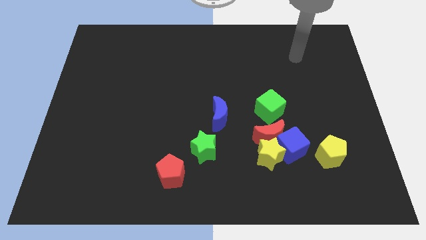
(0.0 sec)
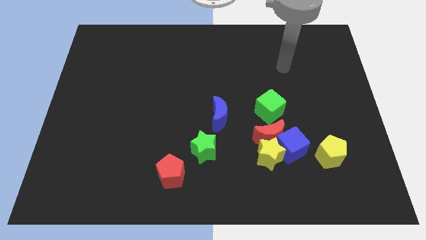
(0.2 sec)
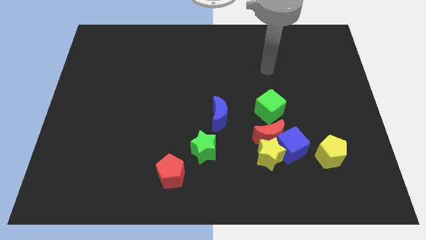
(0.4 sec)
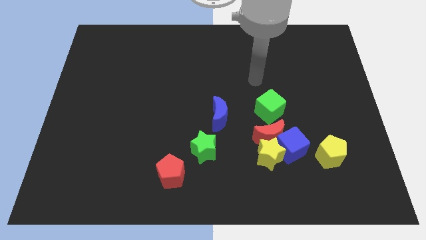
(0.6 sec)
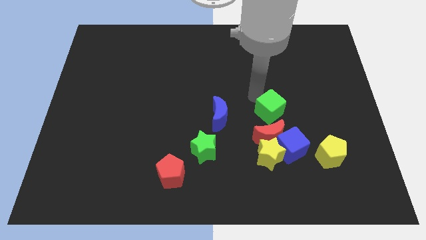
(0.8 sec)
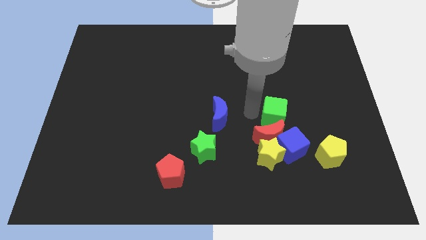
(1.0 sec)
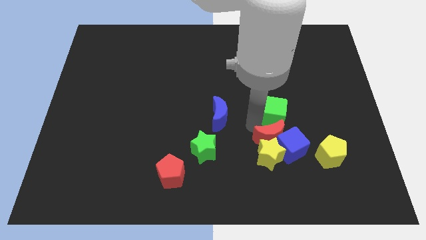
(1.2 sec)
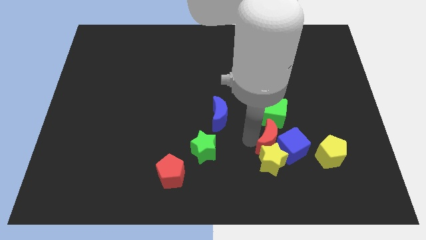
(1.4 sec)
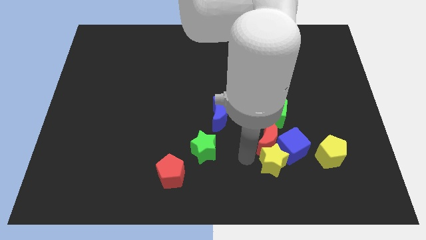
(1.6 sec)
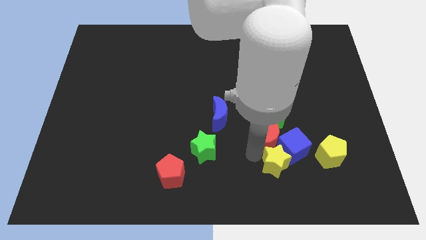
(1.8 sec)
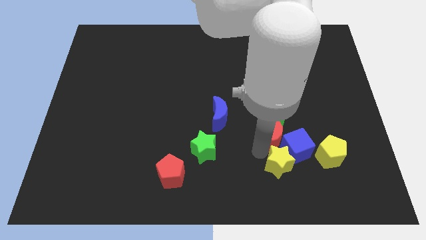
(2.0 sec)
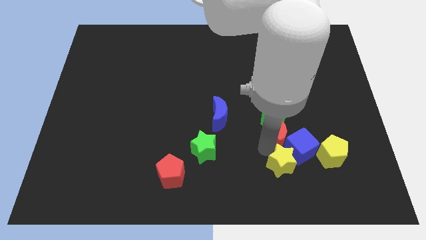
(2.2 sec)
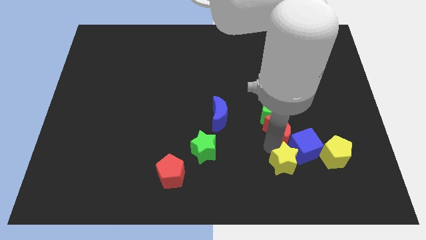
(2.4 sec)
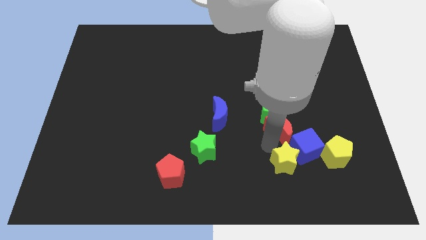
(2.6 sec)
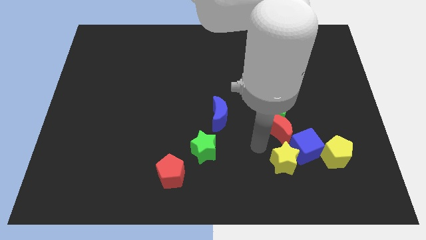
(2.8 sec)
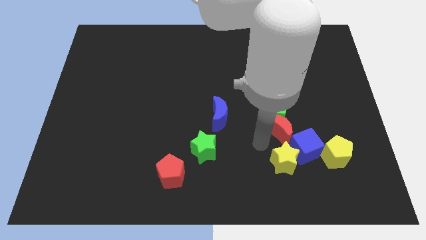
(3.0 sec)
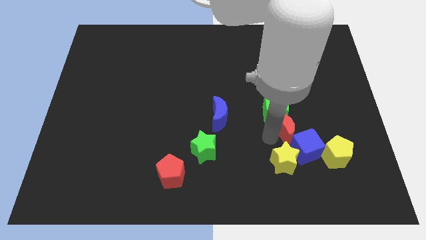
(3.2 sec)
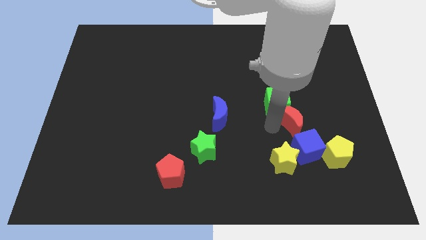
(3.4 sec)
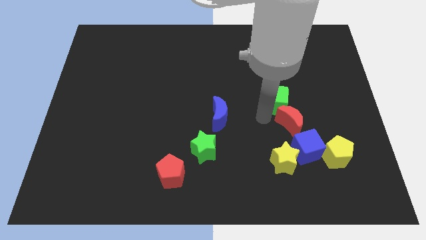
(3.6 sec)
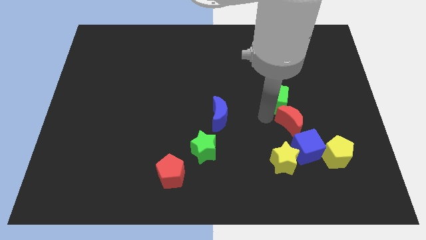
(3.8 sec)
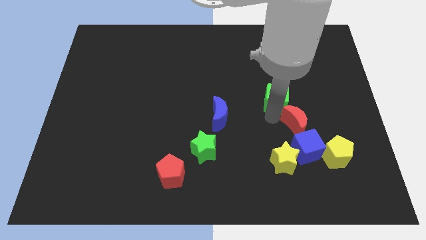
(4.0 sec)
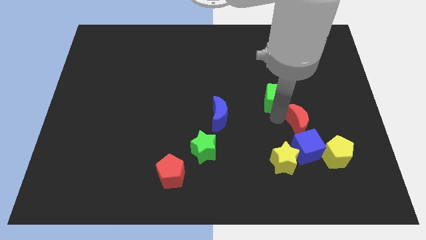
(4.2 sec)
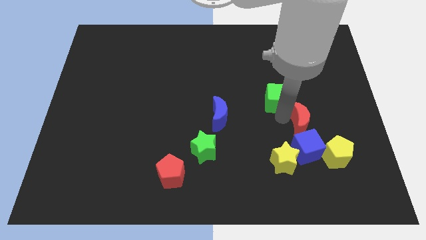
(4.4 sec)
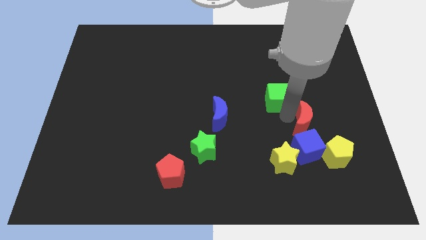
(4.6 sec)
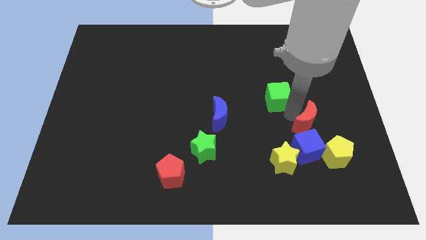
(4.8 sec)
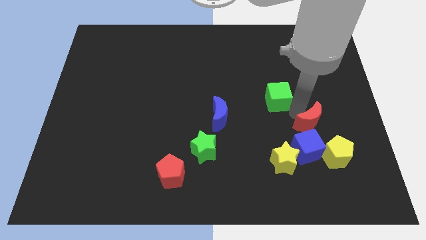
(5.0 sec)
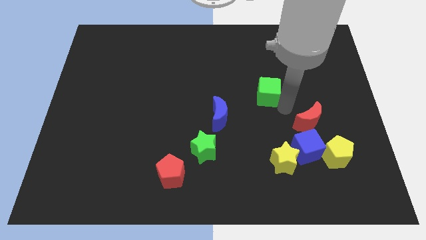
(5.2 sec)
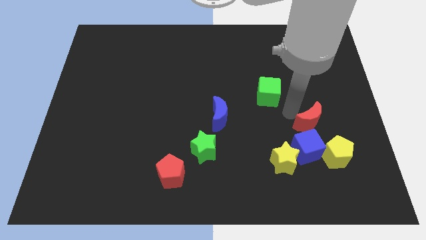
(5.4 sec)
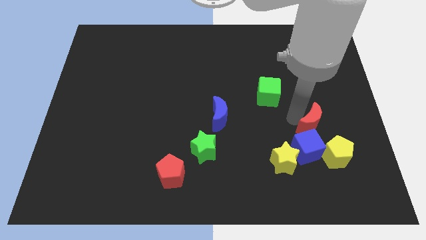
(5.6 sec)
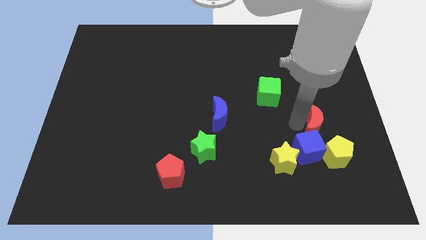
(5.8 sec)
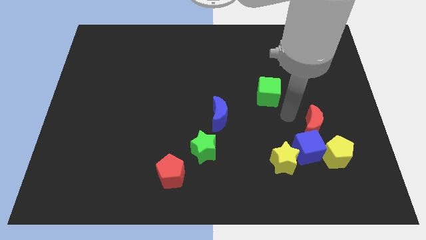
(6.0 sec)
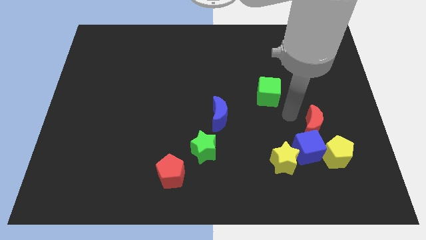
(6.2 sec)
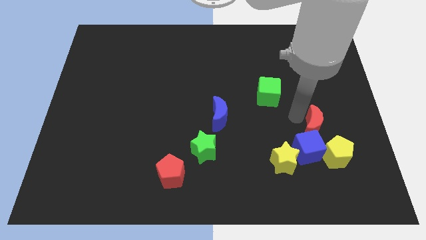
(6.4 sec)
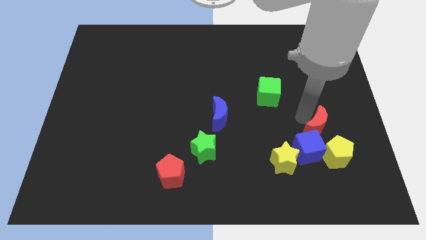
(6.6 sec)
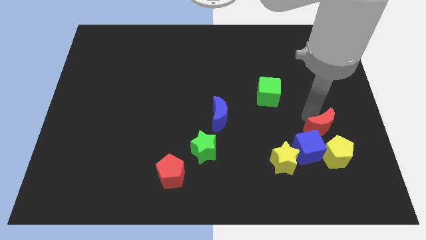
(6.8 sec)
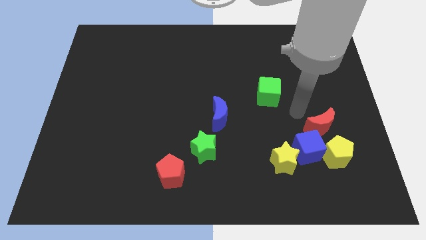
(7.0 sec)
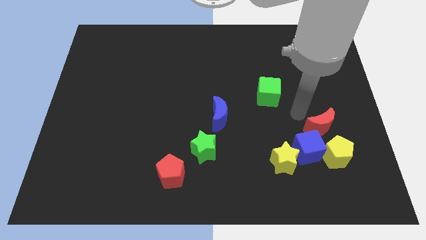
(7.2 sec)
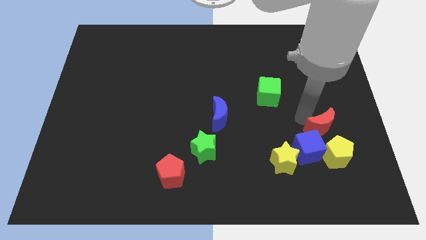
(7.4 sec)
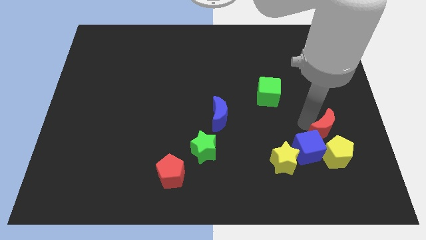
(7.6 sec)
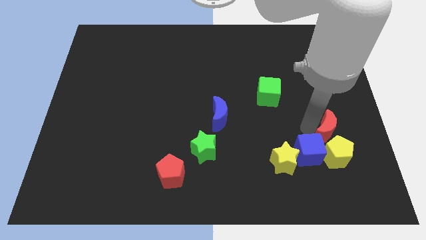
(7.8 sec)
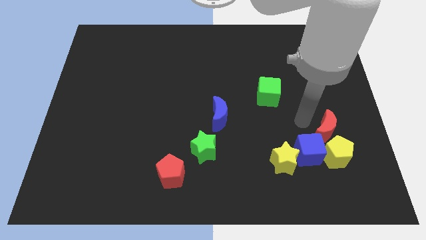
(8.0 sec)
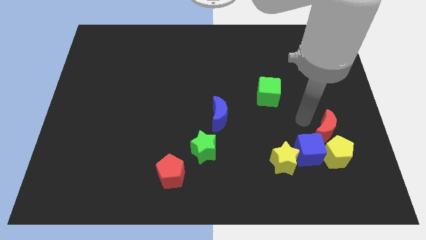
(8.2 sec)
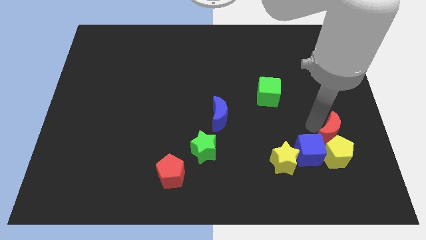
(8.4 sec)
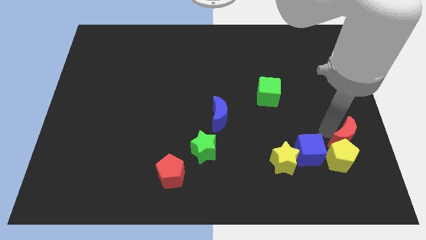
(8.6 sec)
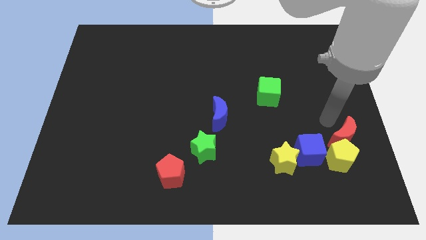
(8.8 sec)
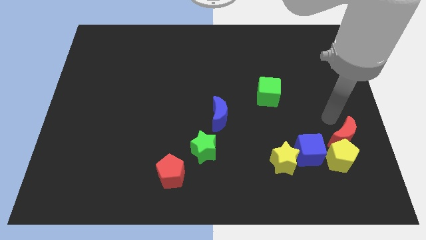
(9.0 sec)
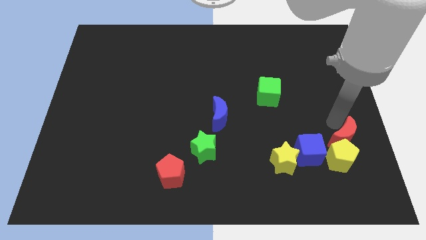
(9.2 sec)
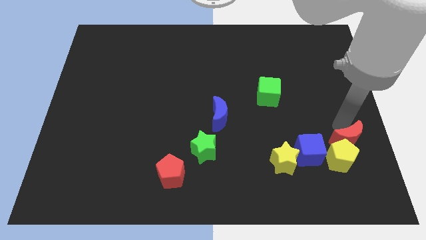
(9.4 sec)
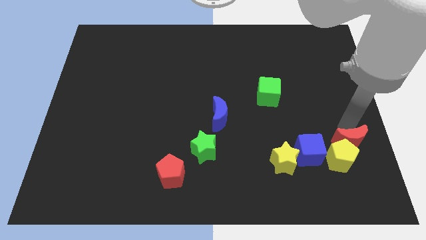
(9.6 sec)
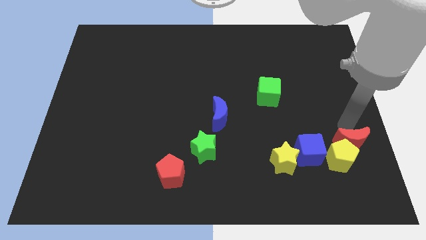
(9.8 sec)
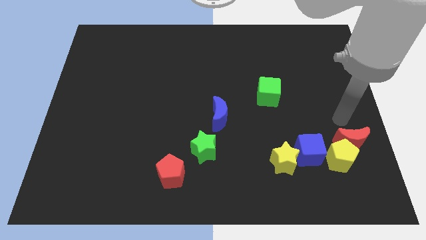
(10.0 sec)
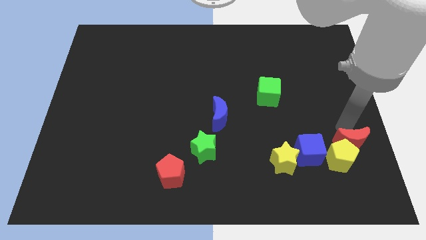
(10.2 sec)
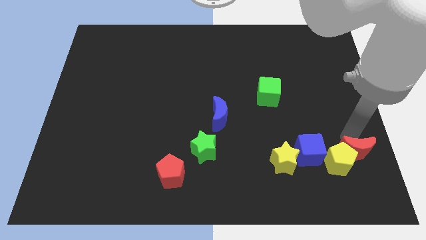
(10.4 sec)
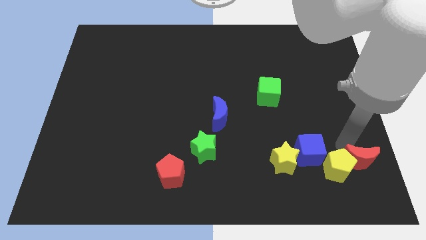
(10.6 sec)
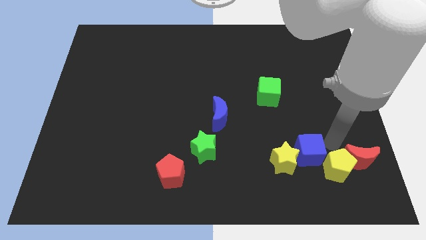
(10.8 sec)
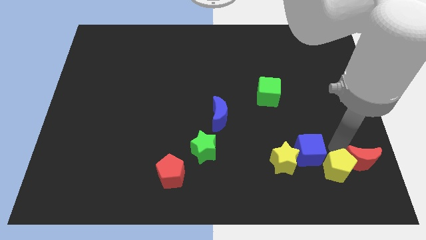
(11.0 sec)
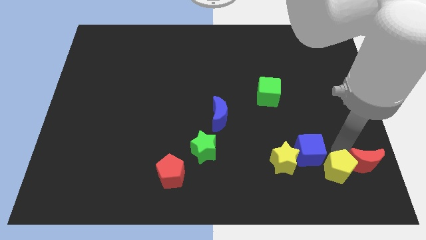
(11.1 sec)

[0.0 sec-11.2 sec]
put the red moon to the bottom right of the board

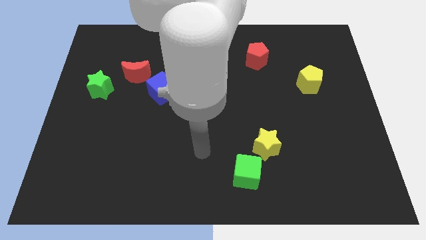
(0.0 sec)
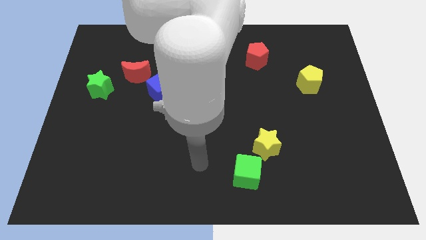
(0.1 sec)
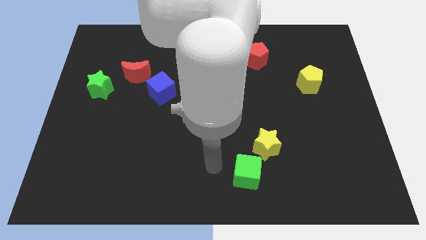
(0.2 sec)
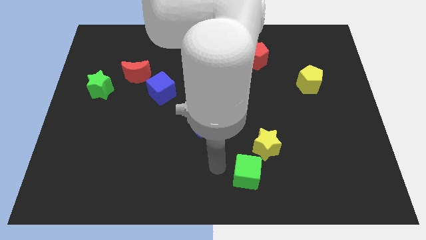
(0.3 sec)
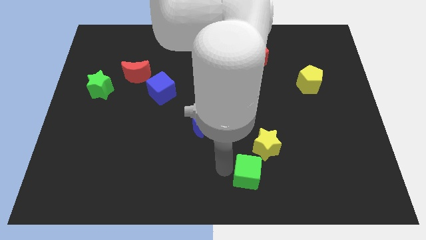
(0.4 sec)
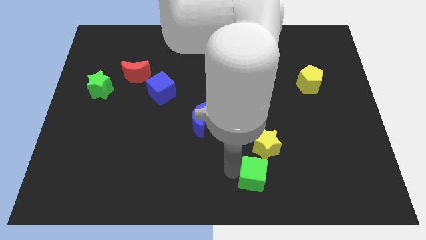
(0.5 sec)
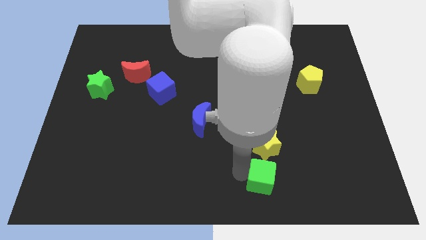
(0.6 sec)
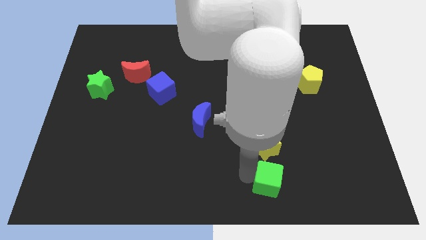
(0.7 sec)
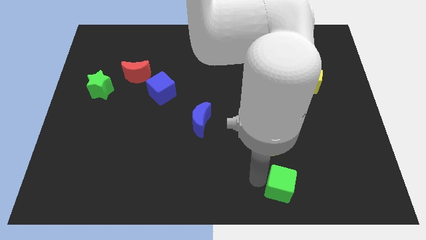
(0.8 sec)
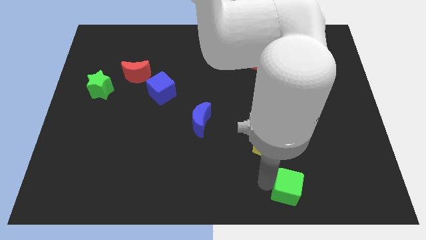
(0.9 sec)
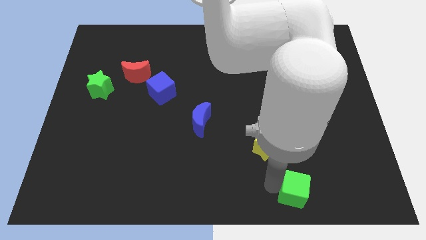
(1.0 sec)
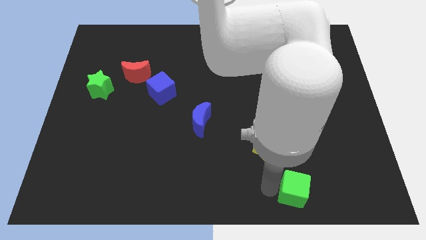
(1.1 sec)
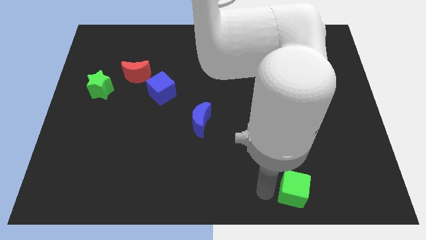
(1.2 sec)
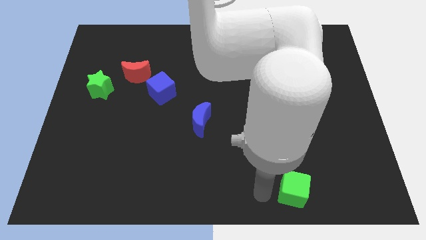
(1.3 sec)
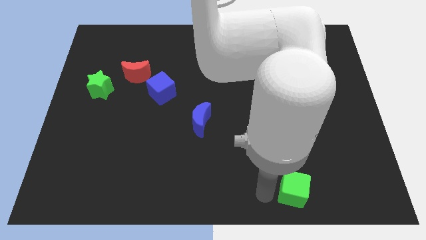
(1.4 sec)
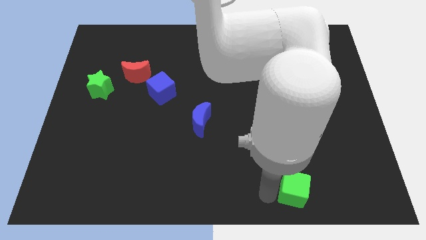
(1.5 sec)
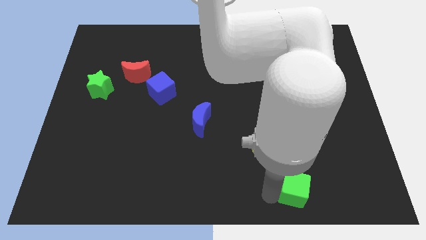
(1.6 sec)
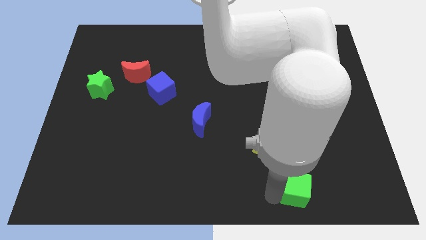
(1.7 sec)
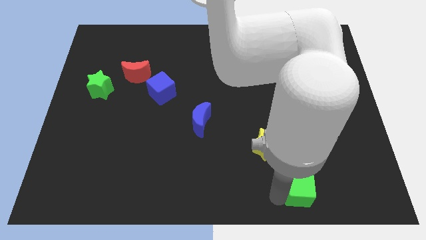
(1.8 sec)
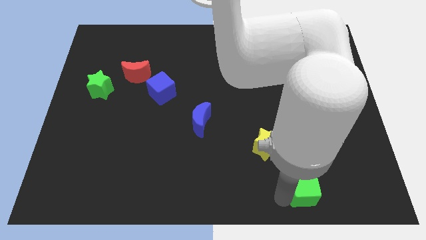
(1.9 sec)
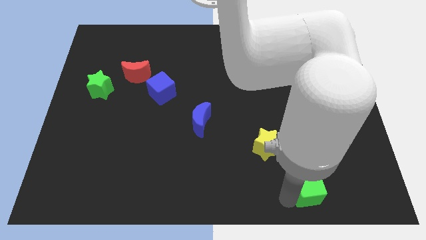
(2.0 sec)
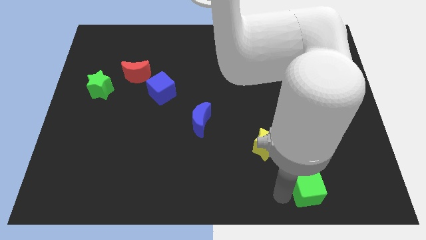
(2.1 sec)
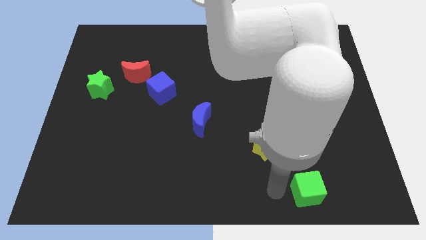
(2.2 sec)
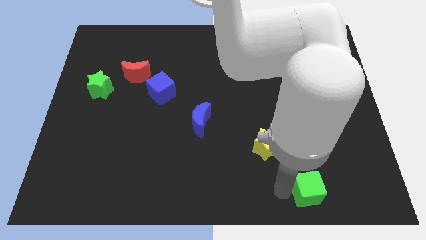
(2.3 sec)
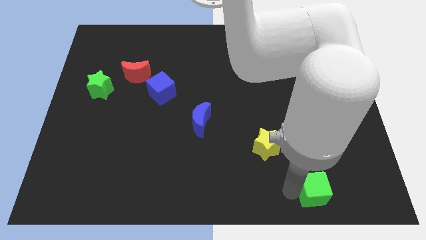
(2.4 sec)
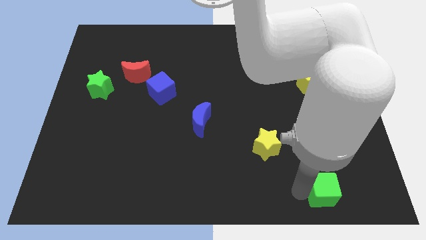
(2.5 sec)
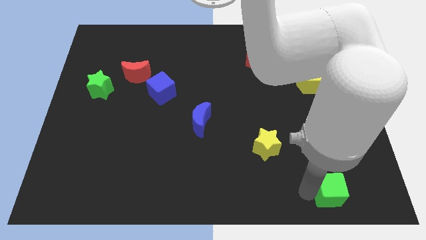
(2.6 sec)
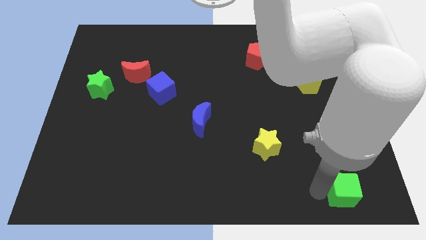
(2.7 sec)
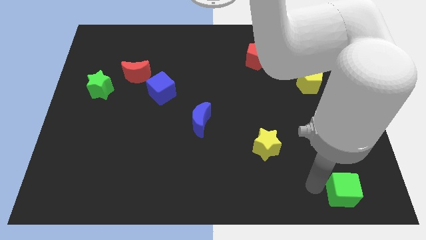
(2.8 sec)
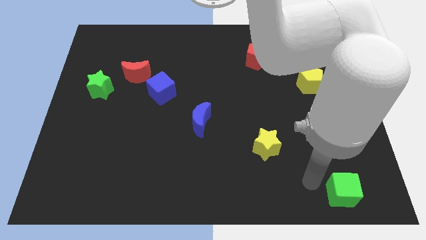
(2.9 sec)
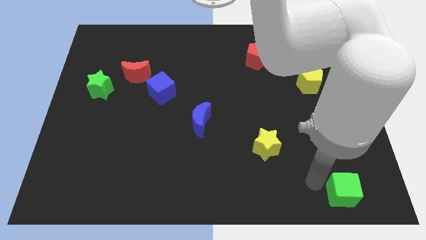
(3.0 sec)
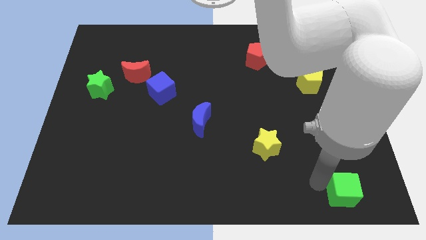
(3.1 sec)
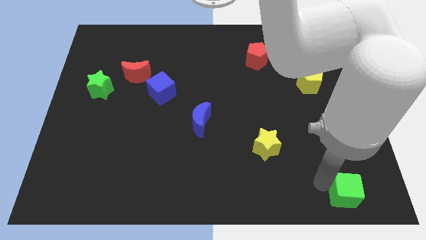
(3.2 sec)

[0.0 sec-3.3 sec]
slide the green cube to the bottom right of the board
